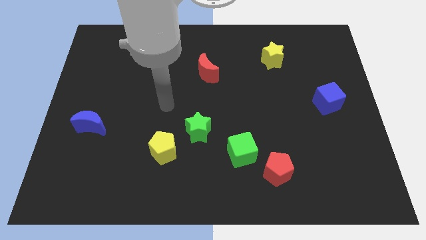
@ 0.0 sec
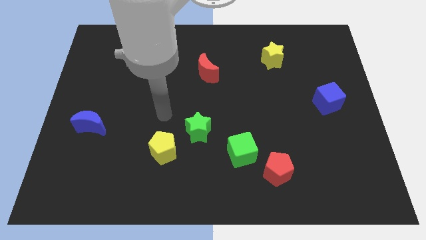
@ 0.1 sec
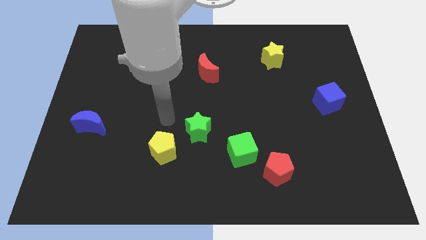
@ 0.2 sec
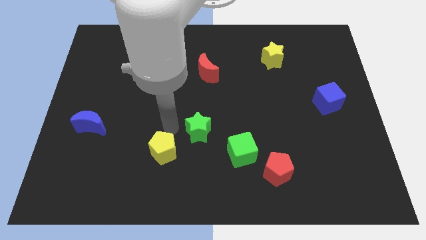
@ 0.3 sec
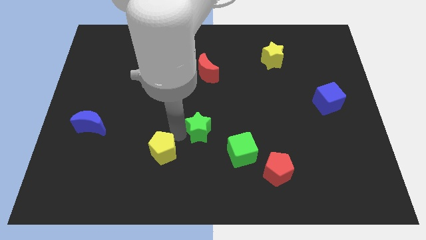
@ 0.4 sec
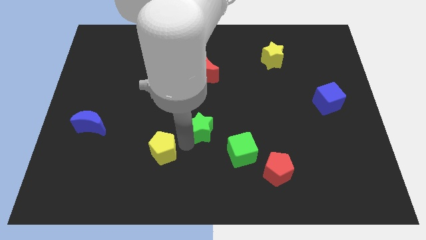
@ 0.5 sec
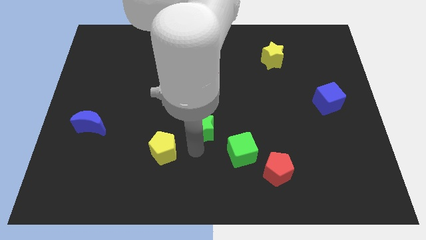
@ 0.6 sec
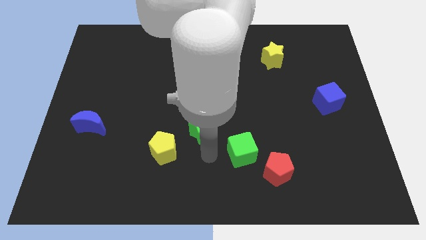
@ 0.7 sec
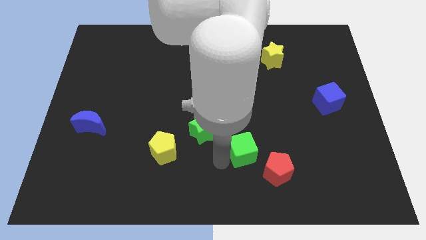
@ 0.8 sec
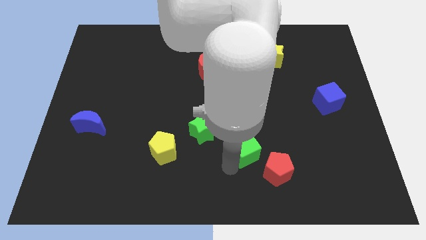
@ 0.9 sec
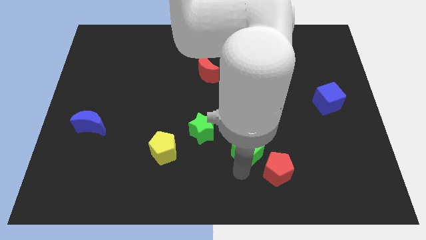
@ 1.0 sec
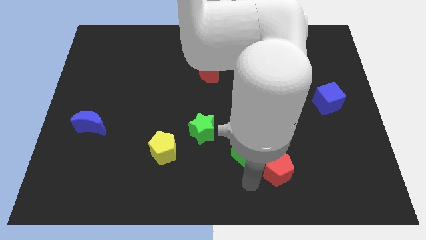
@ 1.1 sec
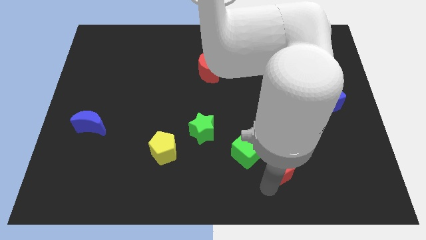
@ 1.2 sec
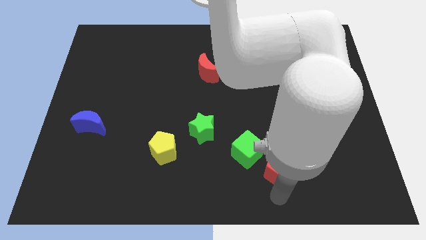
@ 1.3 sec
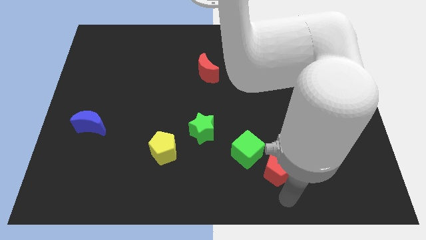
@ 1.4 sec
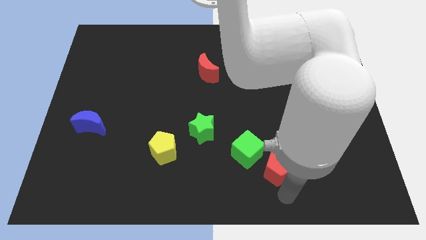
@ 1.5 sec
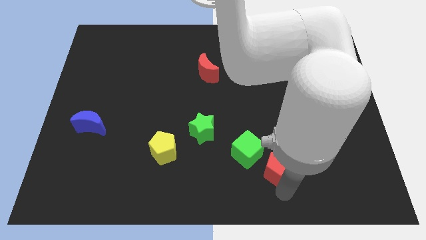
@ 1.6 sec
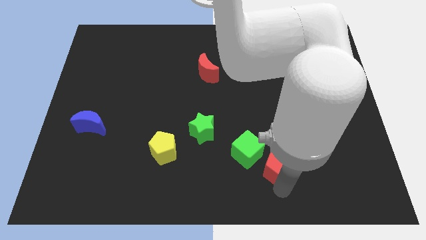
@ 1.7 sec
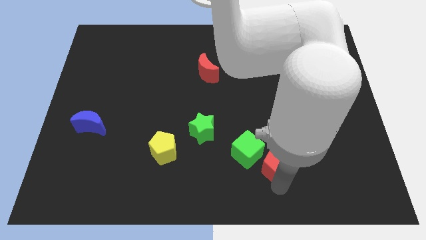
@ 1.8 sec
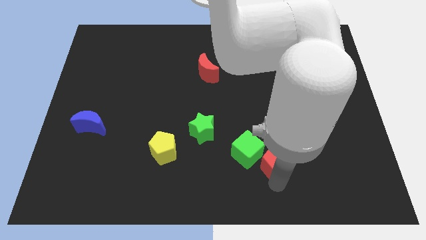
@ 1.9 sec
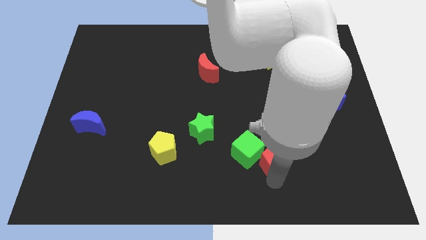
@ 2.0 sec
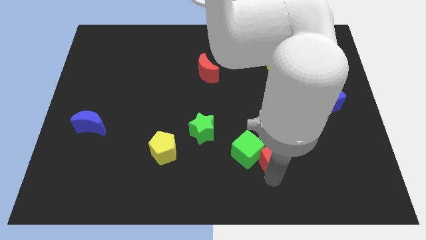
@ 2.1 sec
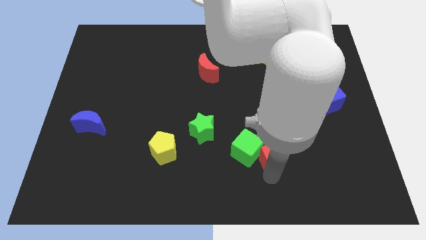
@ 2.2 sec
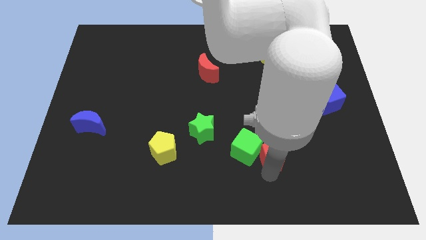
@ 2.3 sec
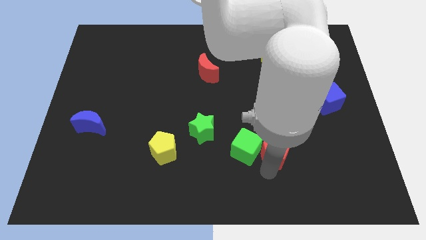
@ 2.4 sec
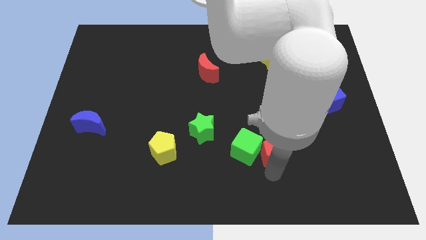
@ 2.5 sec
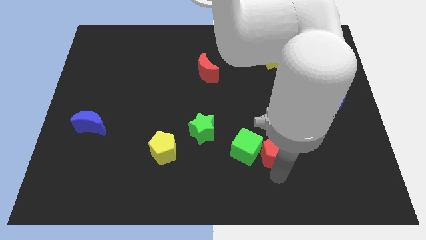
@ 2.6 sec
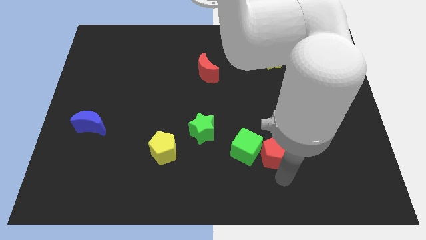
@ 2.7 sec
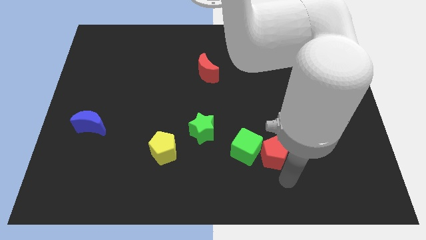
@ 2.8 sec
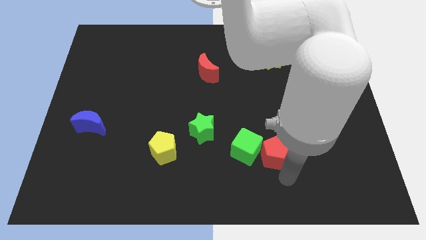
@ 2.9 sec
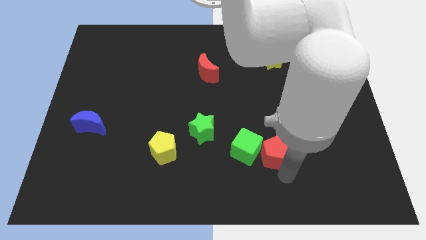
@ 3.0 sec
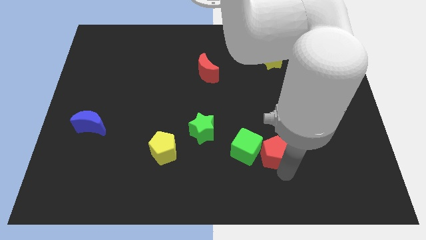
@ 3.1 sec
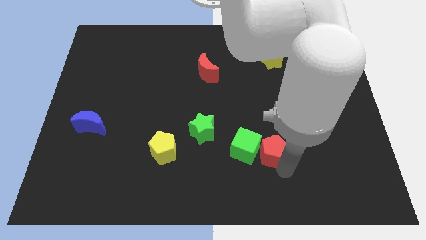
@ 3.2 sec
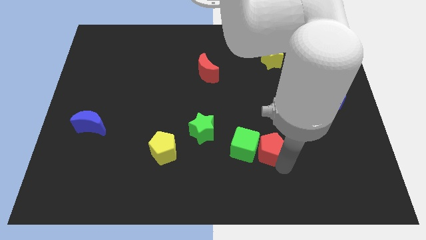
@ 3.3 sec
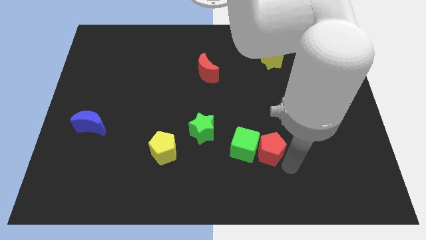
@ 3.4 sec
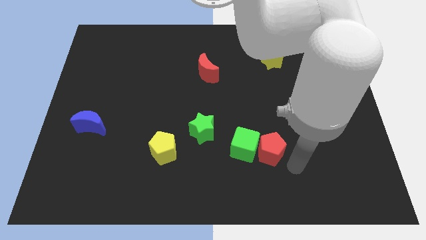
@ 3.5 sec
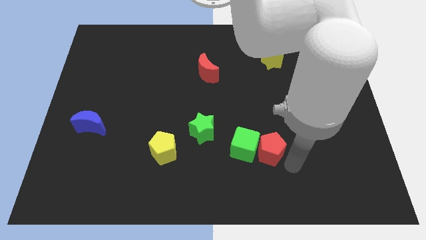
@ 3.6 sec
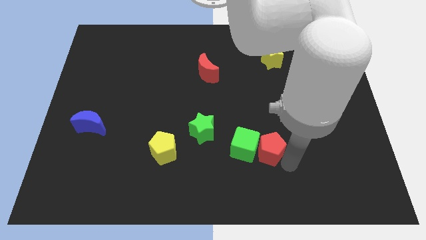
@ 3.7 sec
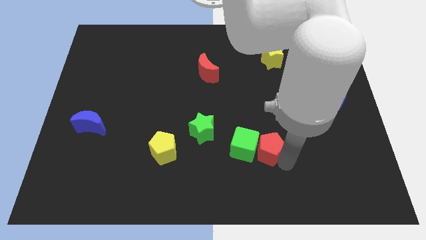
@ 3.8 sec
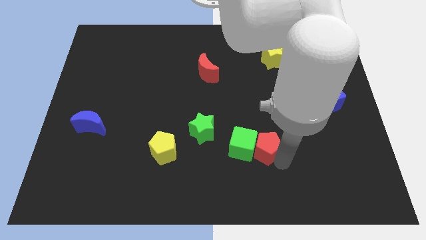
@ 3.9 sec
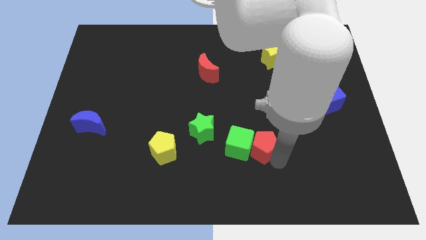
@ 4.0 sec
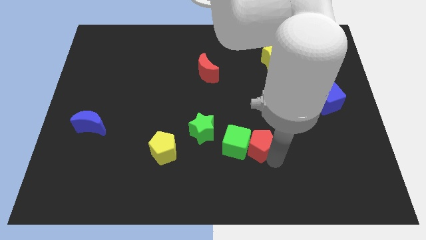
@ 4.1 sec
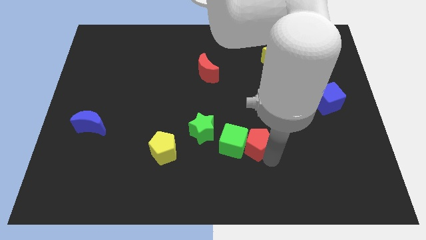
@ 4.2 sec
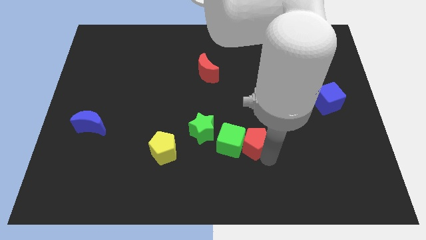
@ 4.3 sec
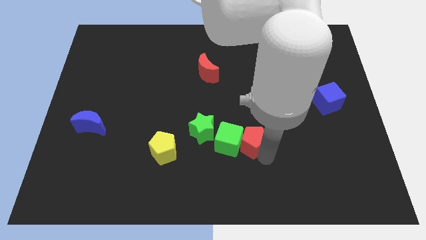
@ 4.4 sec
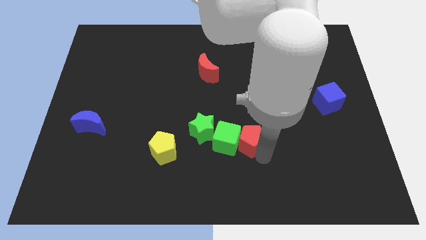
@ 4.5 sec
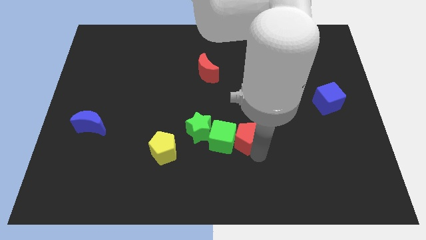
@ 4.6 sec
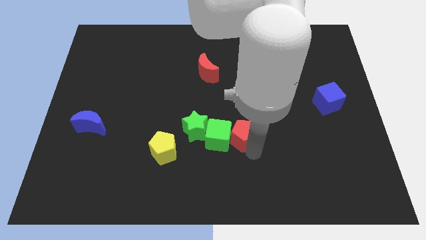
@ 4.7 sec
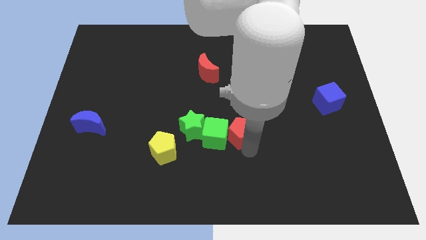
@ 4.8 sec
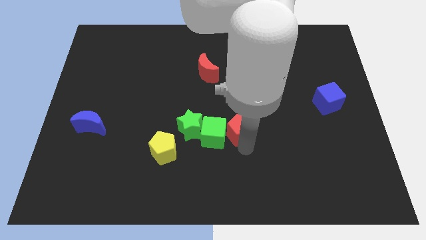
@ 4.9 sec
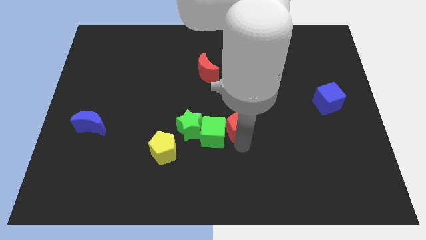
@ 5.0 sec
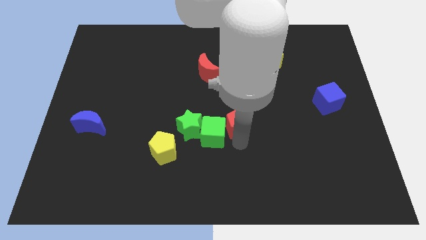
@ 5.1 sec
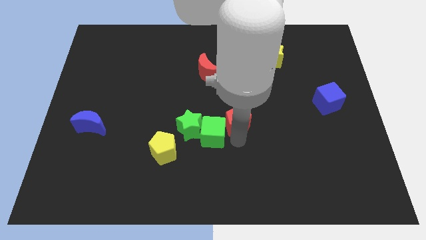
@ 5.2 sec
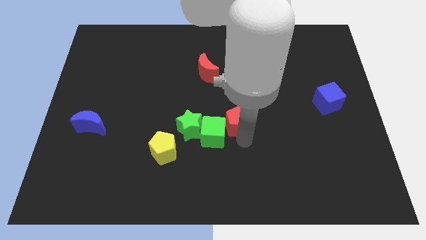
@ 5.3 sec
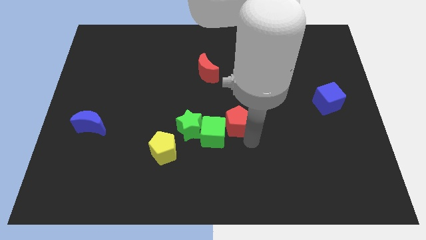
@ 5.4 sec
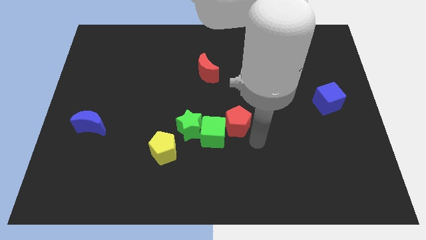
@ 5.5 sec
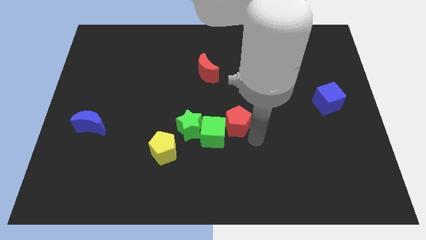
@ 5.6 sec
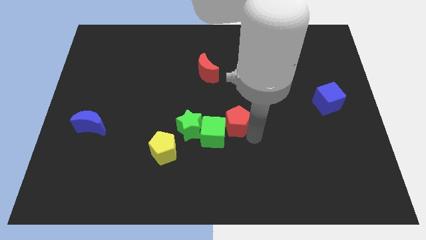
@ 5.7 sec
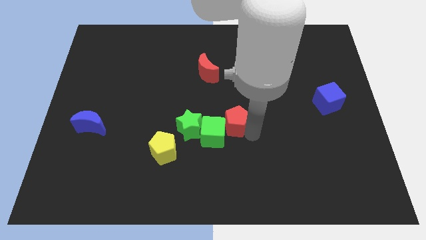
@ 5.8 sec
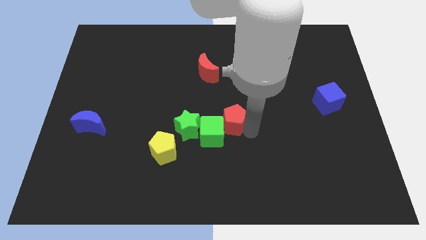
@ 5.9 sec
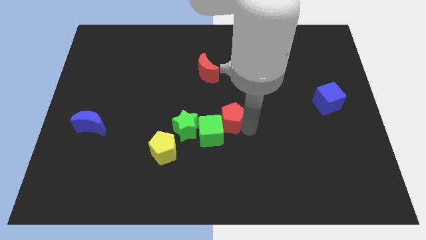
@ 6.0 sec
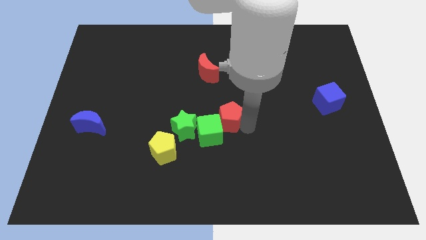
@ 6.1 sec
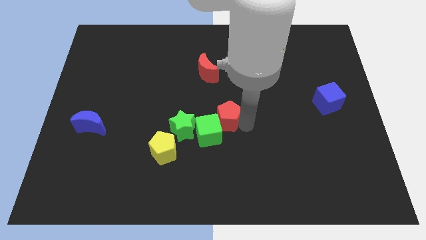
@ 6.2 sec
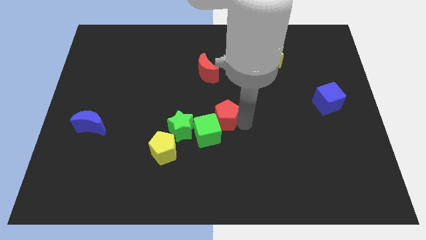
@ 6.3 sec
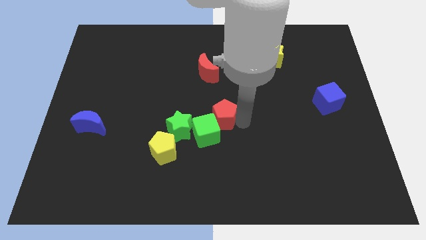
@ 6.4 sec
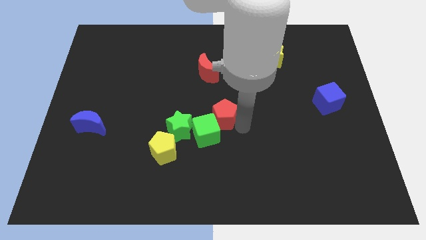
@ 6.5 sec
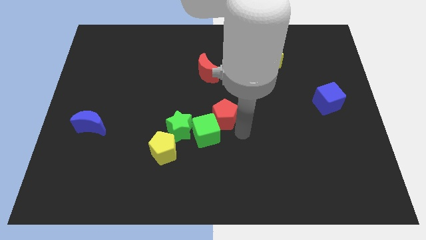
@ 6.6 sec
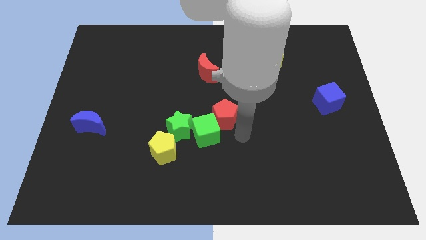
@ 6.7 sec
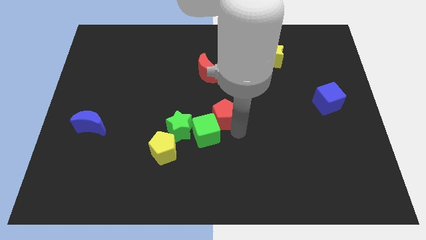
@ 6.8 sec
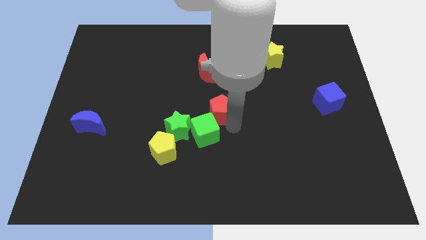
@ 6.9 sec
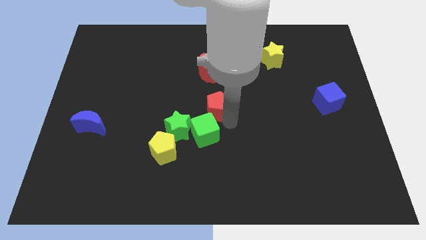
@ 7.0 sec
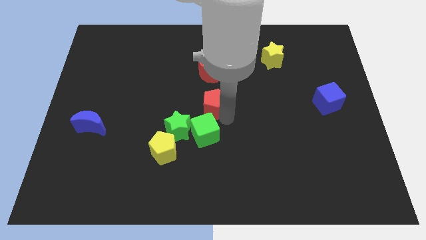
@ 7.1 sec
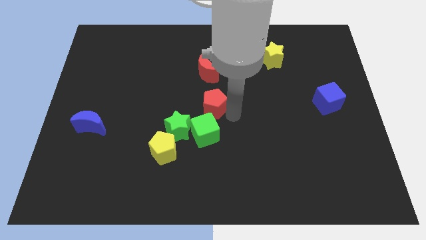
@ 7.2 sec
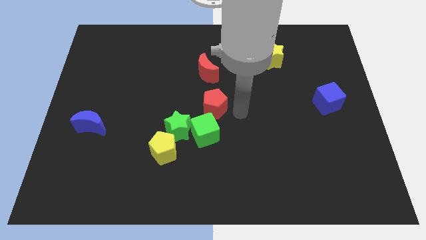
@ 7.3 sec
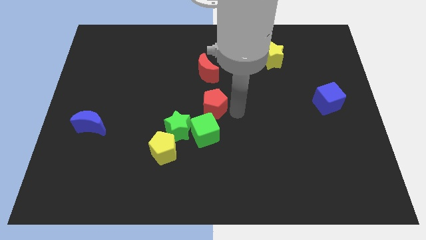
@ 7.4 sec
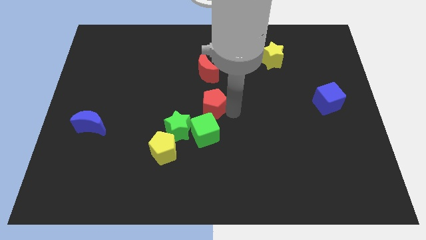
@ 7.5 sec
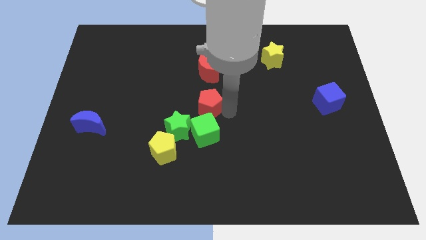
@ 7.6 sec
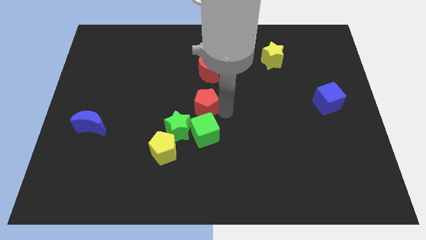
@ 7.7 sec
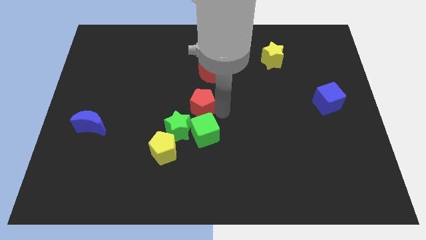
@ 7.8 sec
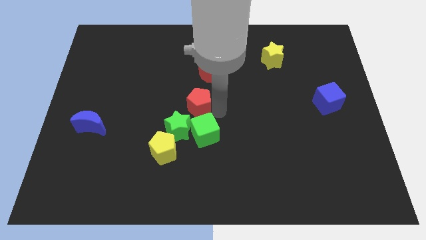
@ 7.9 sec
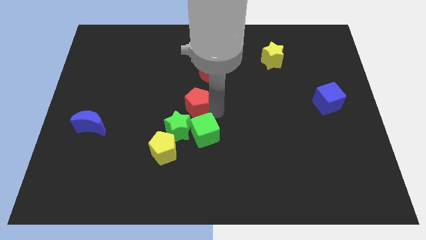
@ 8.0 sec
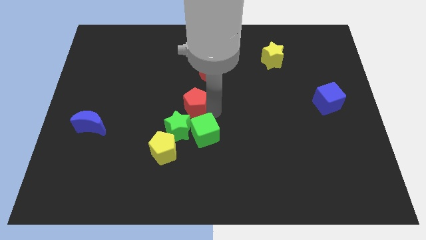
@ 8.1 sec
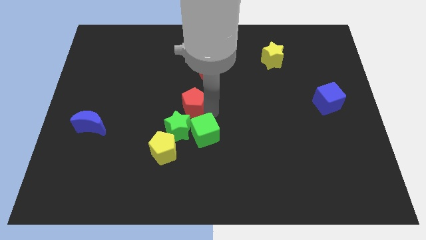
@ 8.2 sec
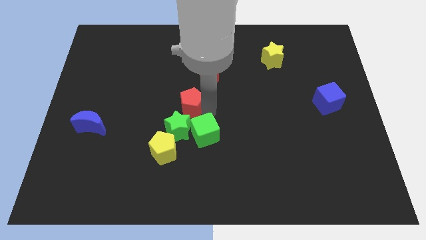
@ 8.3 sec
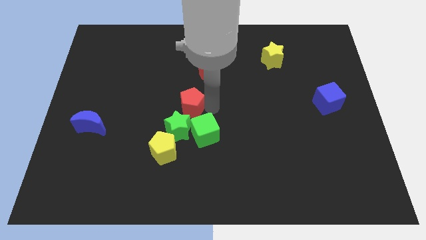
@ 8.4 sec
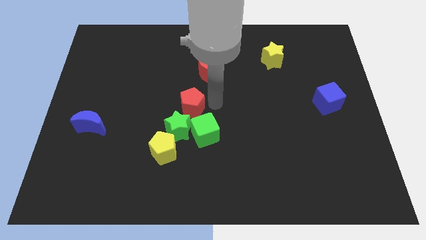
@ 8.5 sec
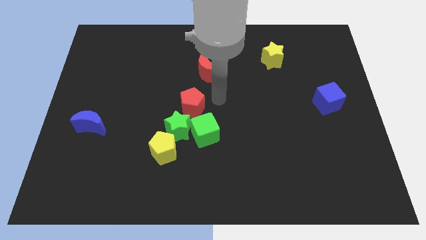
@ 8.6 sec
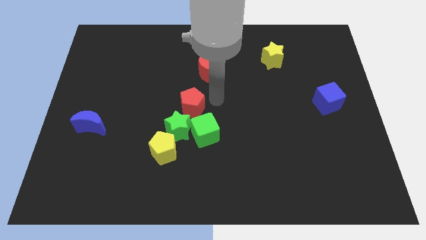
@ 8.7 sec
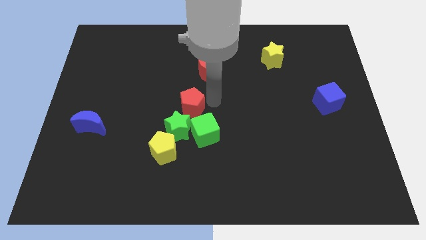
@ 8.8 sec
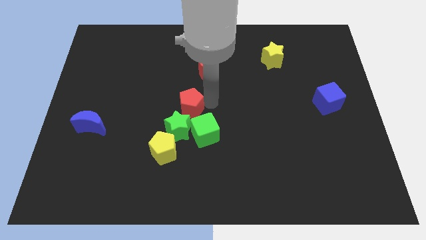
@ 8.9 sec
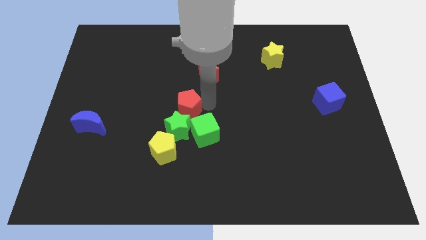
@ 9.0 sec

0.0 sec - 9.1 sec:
put the red pentagon to the top side of the yellow pentagon
